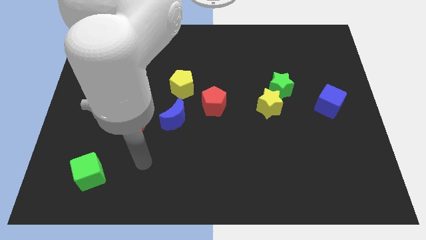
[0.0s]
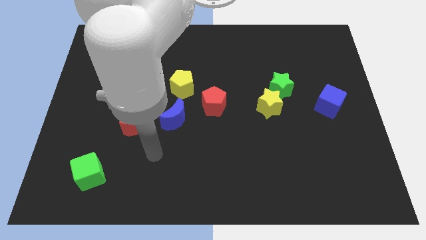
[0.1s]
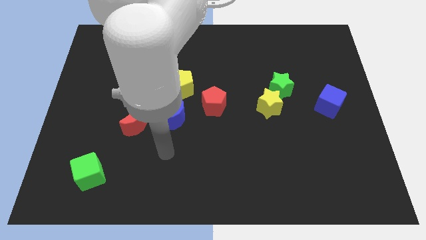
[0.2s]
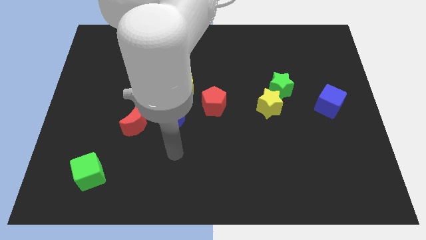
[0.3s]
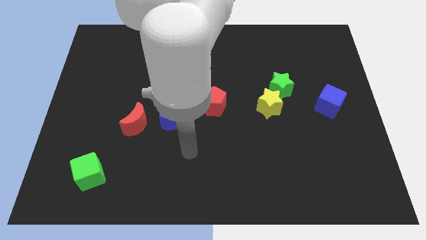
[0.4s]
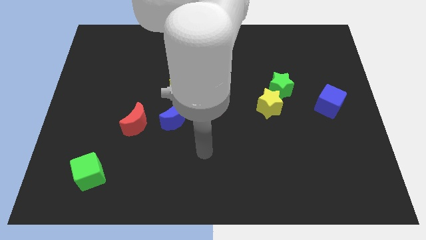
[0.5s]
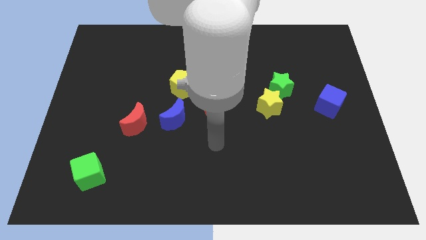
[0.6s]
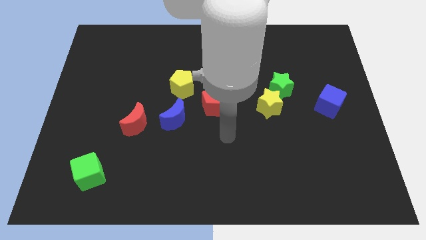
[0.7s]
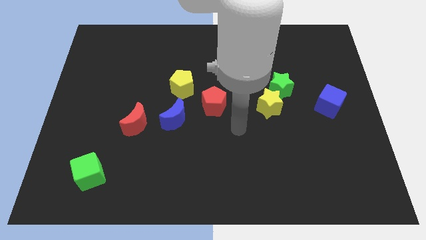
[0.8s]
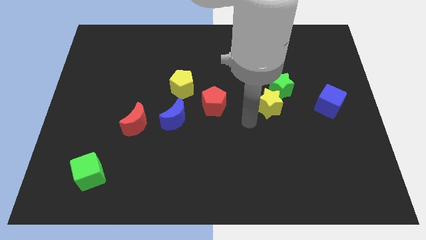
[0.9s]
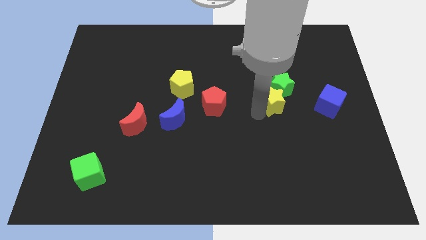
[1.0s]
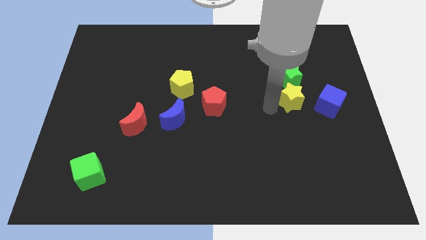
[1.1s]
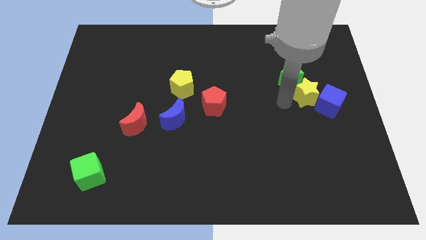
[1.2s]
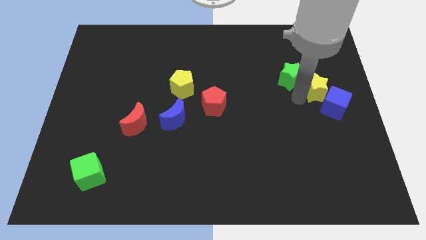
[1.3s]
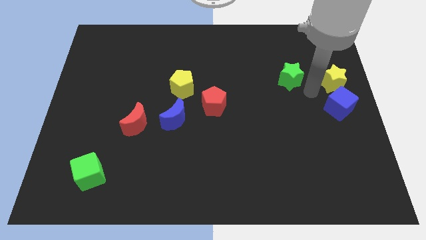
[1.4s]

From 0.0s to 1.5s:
pull the green star apart from the yellow star

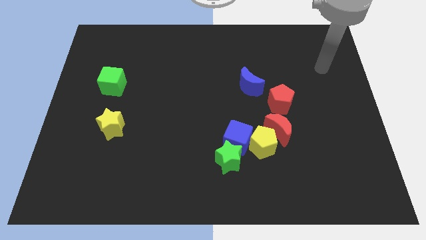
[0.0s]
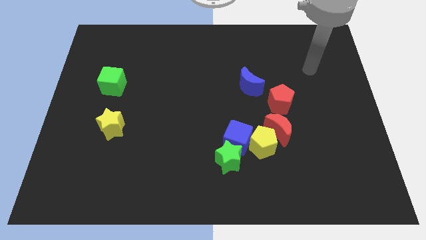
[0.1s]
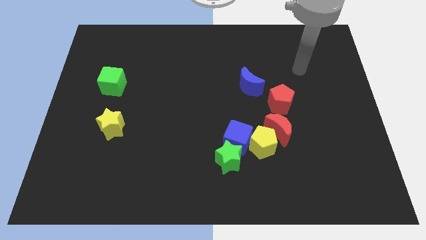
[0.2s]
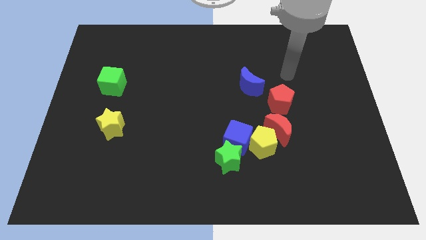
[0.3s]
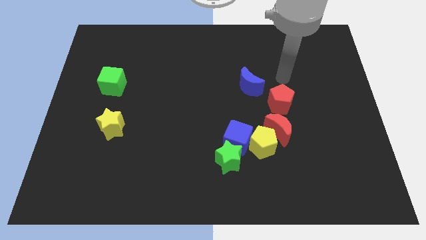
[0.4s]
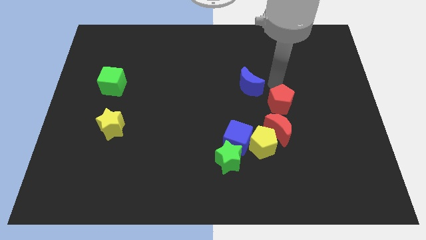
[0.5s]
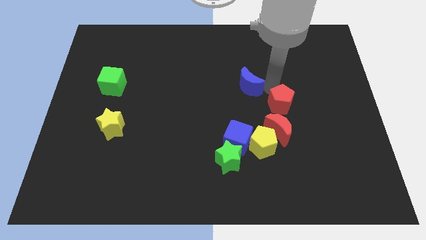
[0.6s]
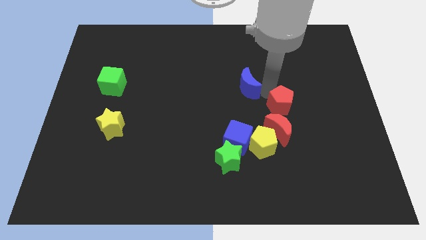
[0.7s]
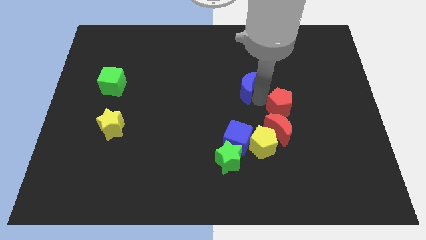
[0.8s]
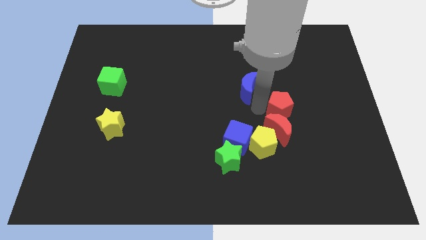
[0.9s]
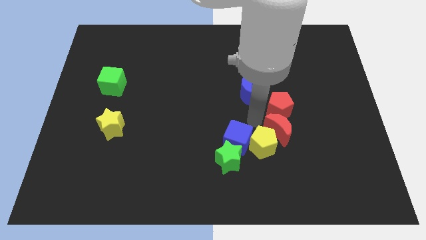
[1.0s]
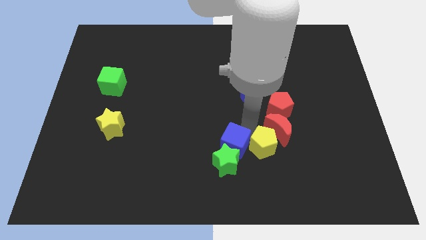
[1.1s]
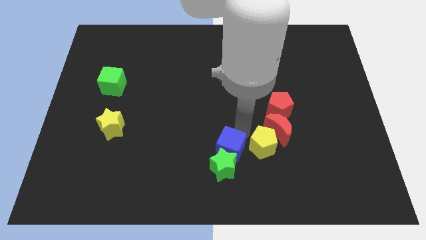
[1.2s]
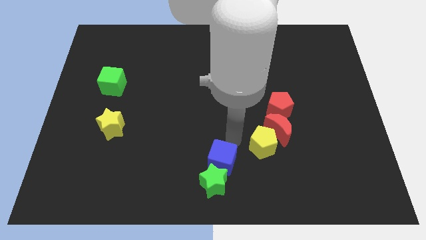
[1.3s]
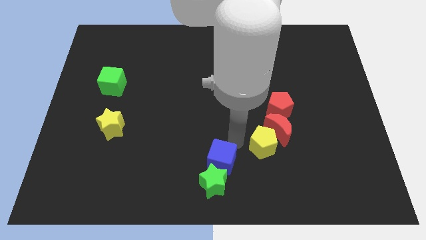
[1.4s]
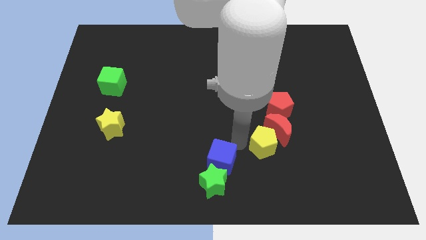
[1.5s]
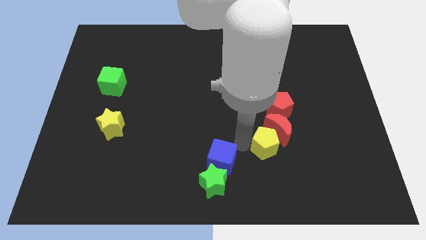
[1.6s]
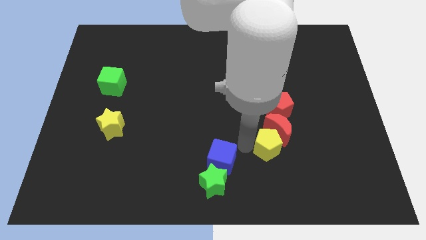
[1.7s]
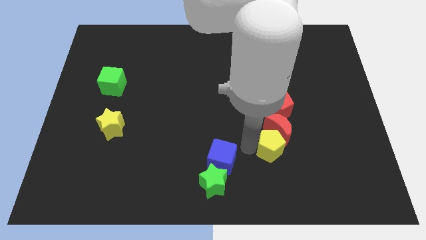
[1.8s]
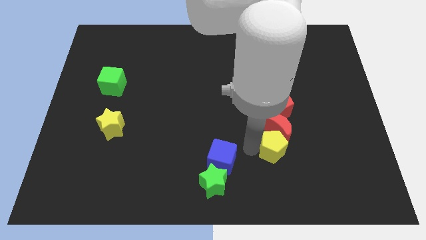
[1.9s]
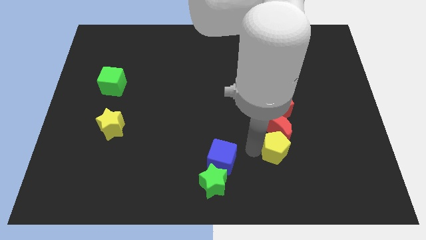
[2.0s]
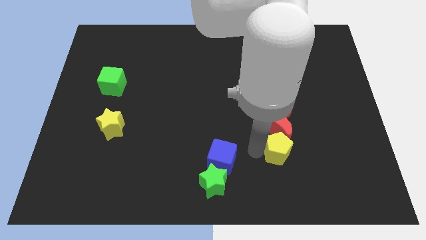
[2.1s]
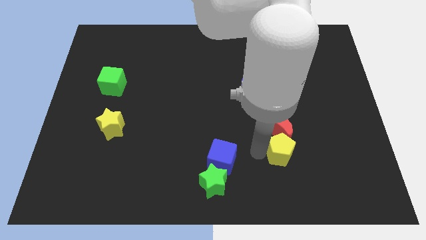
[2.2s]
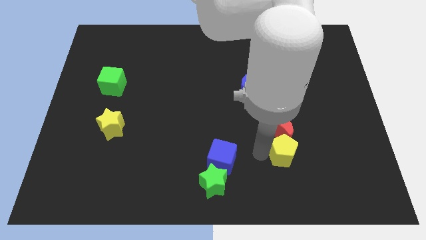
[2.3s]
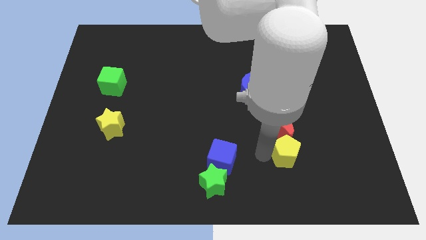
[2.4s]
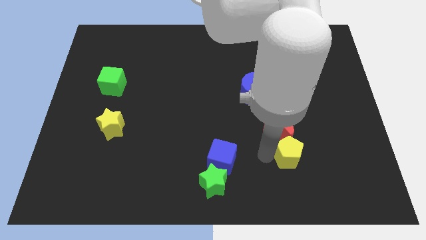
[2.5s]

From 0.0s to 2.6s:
pull the yellow pentagon apart from the clump

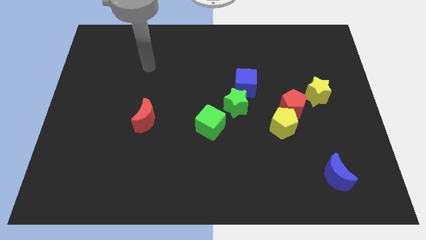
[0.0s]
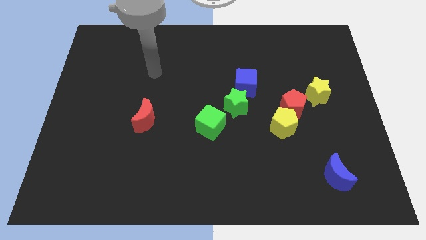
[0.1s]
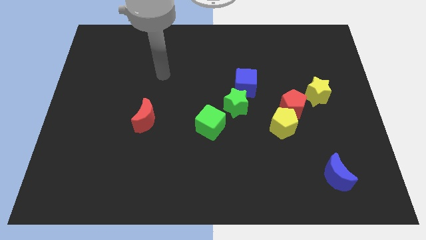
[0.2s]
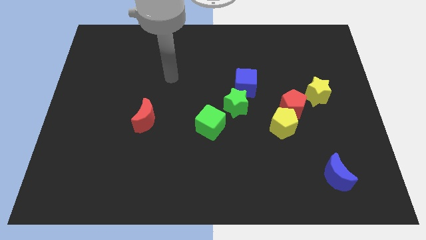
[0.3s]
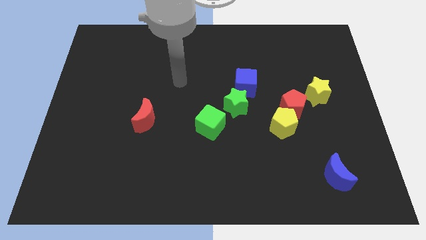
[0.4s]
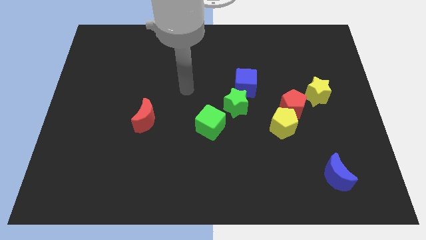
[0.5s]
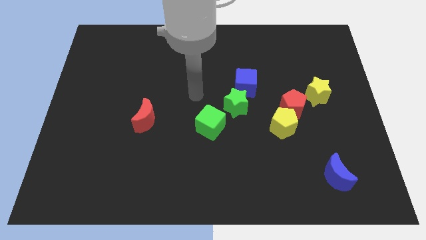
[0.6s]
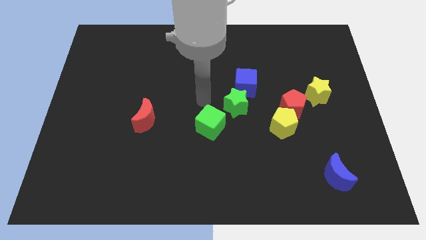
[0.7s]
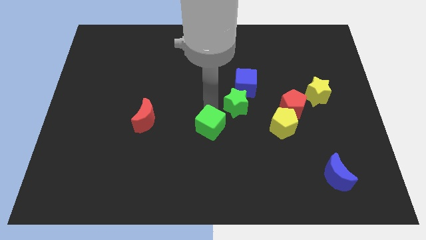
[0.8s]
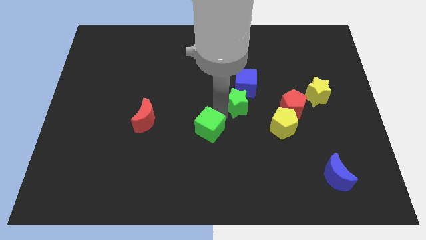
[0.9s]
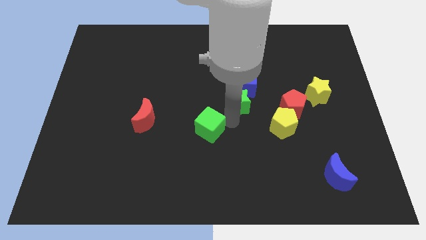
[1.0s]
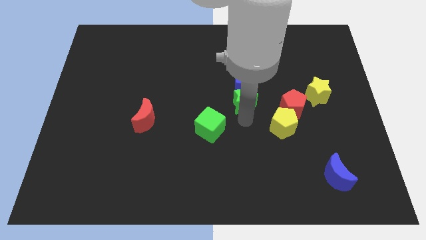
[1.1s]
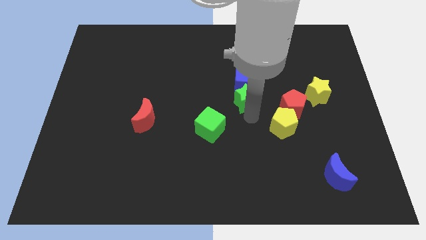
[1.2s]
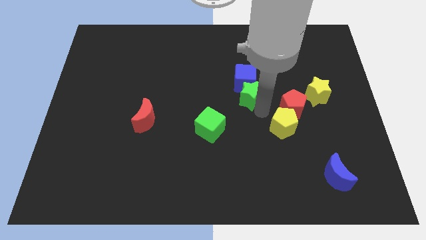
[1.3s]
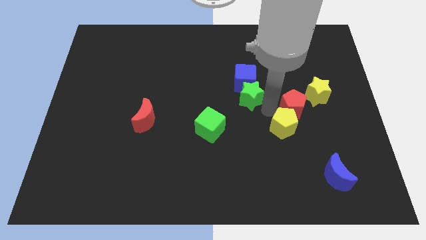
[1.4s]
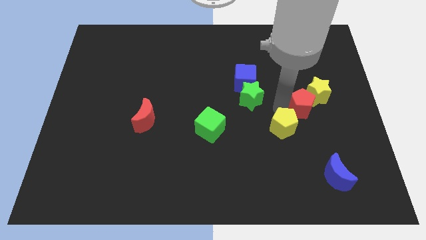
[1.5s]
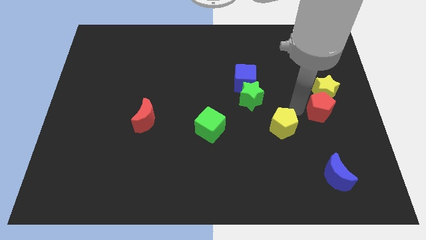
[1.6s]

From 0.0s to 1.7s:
move the yellow pentagon away from the red pentagon

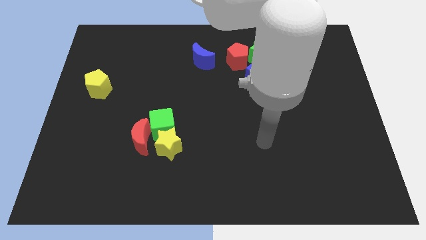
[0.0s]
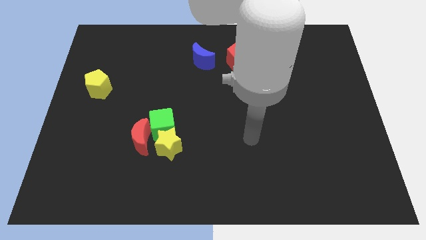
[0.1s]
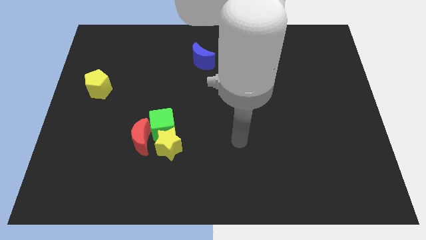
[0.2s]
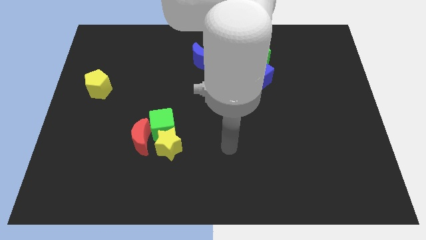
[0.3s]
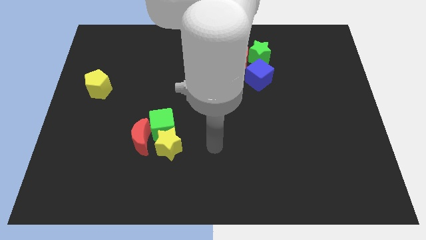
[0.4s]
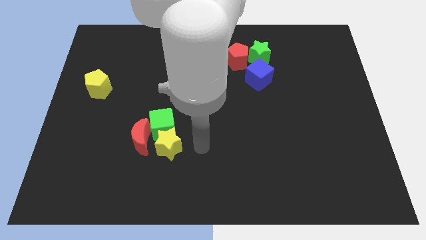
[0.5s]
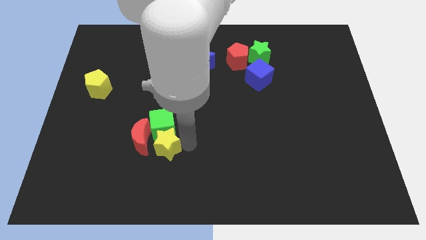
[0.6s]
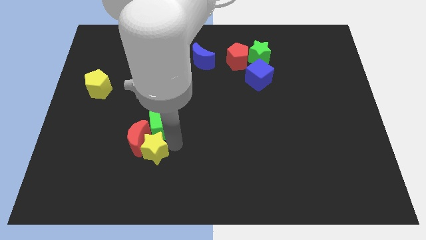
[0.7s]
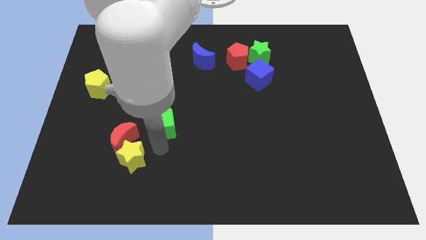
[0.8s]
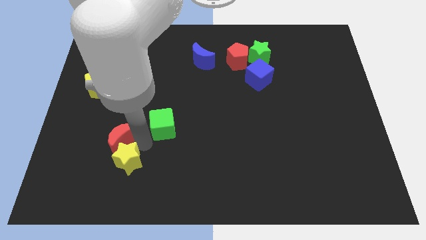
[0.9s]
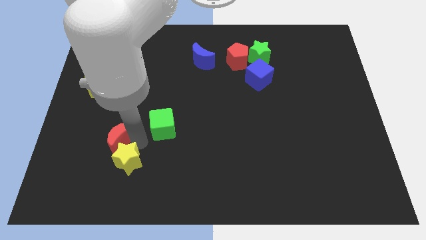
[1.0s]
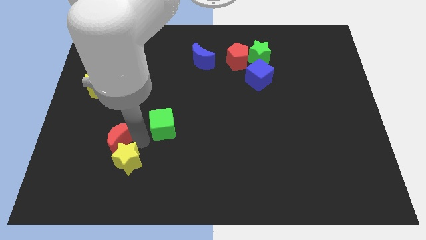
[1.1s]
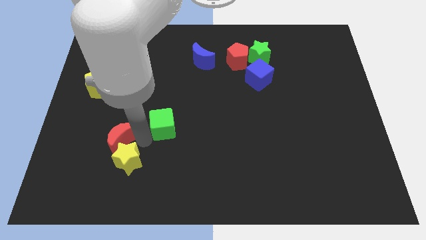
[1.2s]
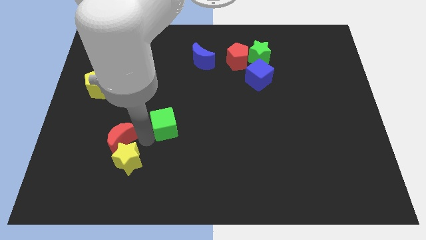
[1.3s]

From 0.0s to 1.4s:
pull the green cube apart from the yellow star and red moon

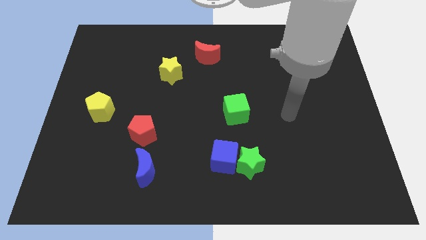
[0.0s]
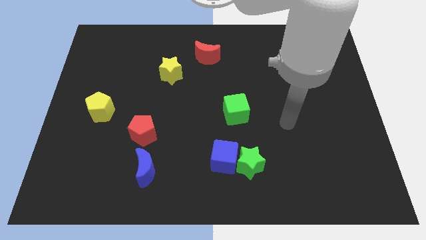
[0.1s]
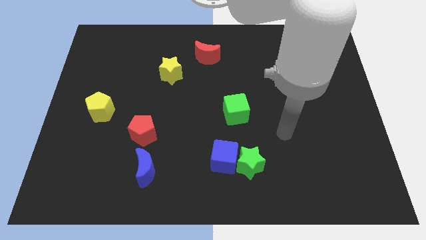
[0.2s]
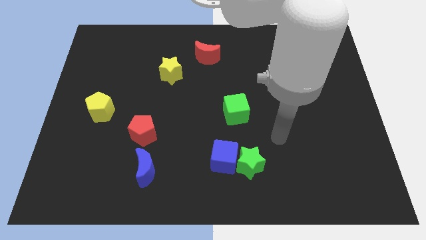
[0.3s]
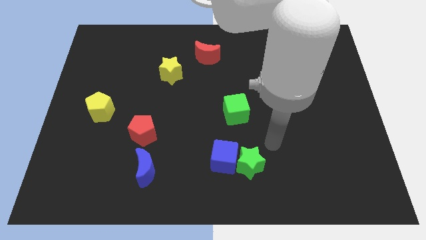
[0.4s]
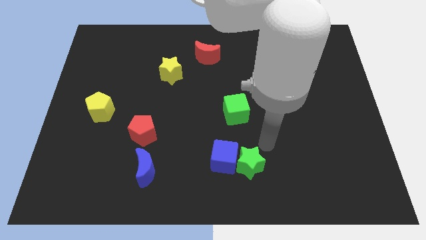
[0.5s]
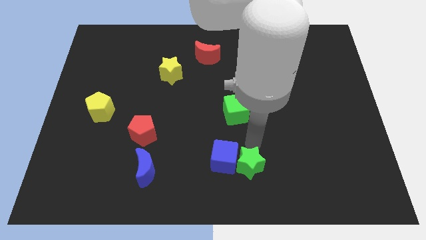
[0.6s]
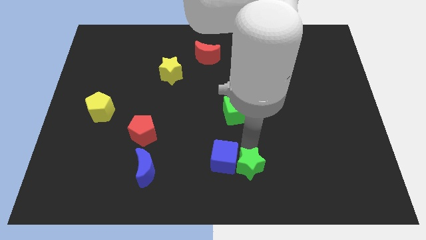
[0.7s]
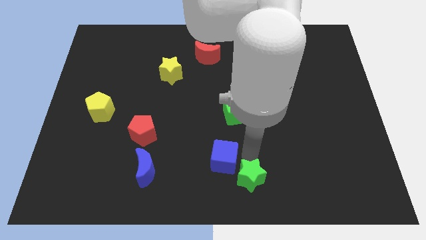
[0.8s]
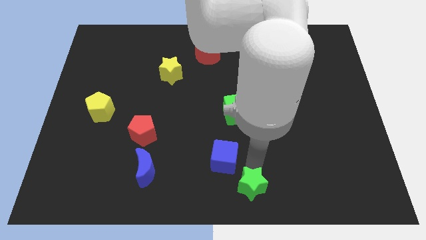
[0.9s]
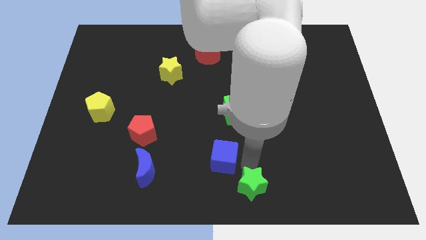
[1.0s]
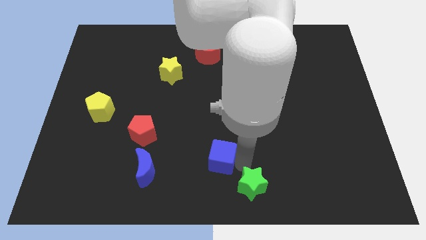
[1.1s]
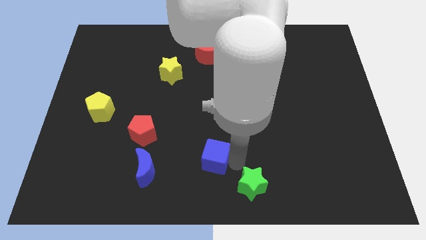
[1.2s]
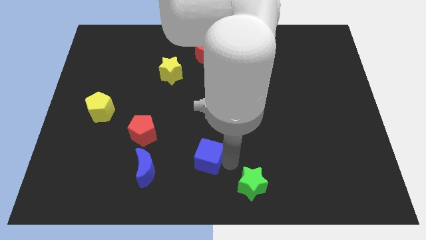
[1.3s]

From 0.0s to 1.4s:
move the blue cube away from the green star

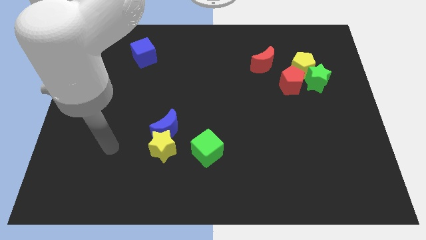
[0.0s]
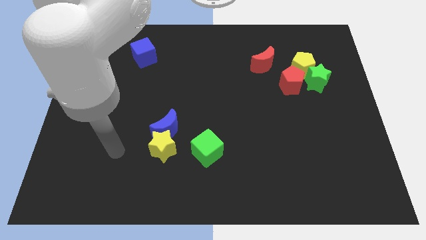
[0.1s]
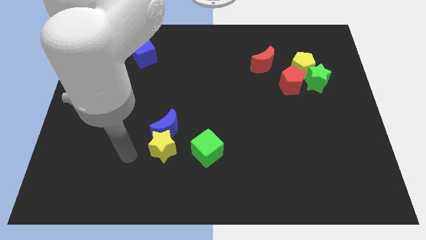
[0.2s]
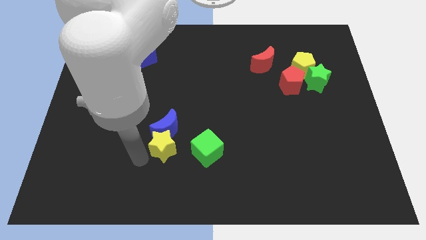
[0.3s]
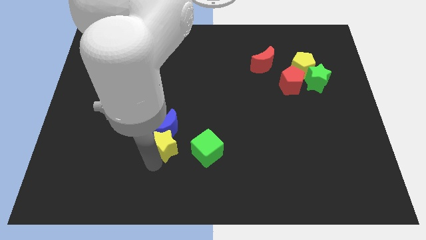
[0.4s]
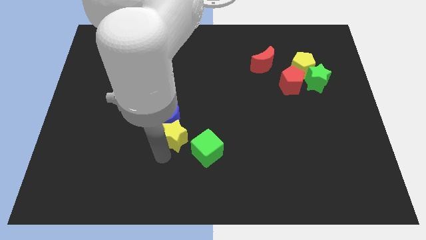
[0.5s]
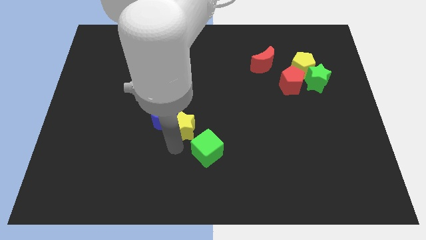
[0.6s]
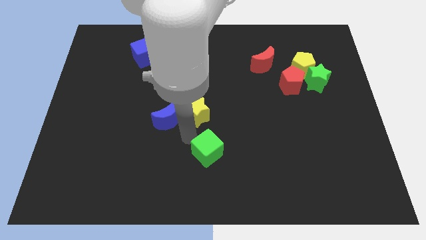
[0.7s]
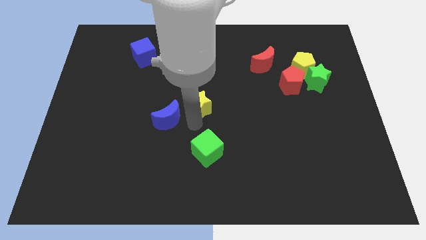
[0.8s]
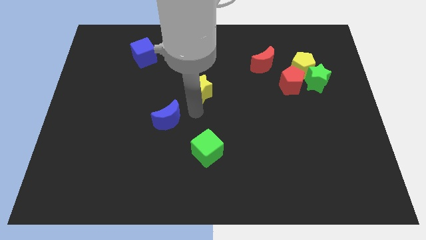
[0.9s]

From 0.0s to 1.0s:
move the blue moon away from the yellow star
